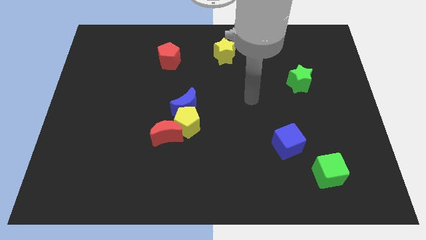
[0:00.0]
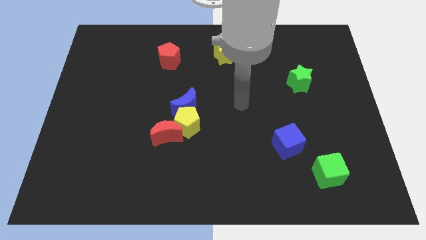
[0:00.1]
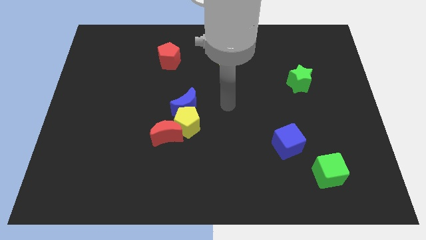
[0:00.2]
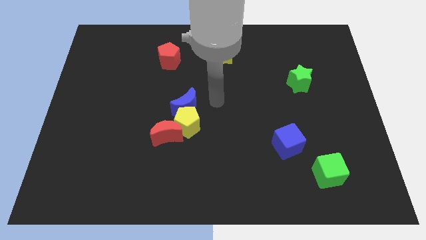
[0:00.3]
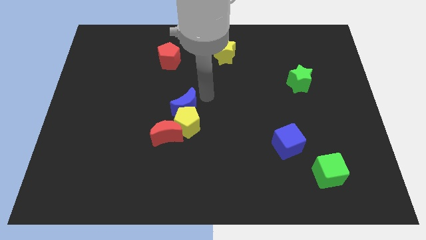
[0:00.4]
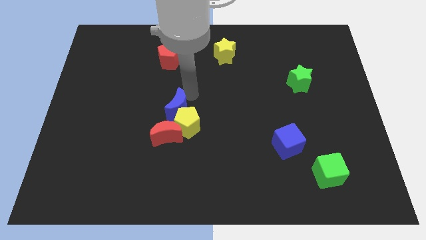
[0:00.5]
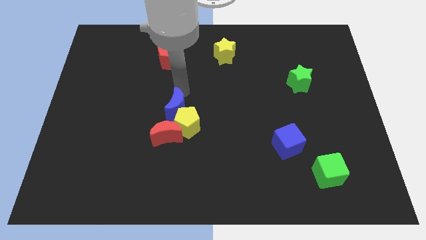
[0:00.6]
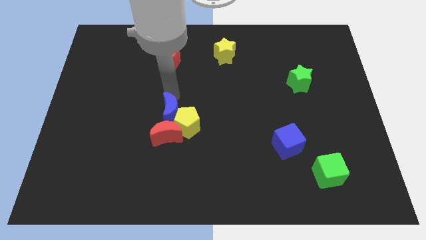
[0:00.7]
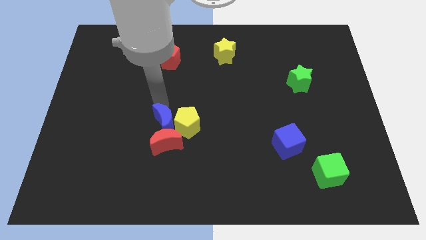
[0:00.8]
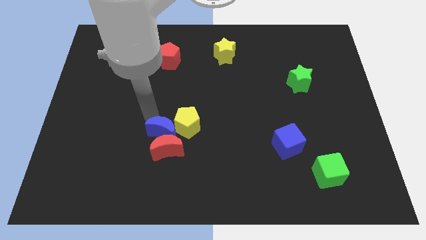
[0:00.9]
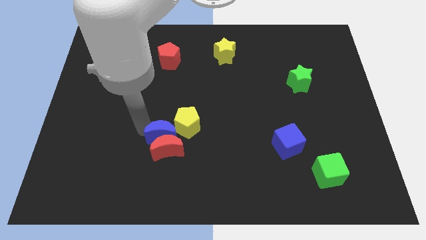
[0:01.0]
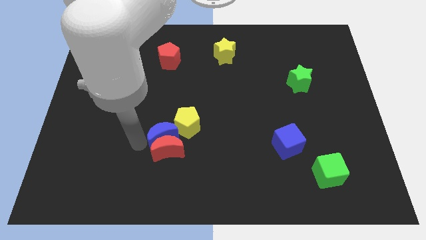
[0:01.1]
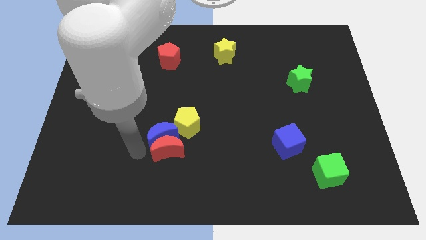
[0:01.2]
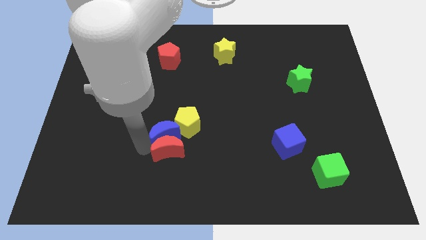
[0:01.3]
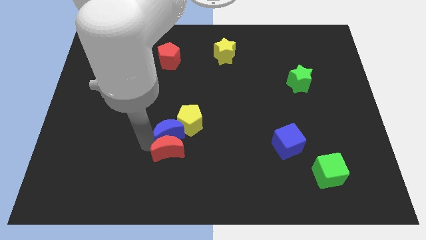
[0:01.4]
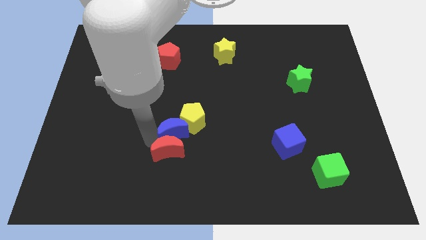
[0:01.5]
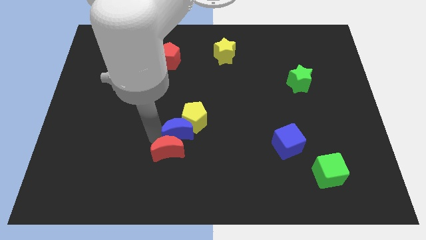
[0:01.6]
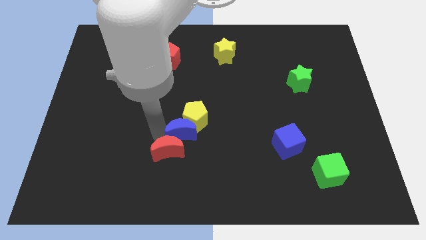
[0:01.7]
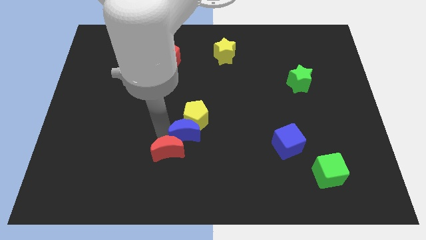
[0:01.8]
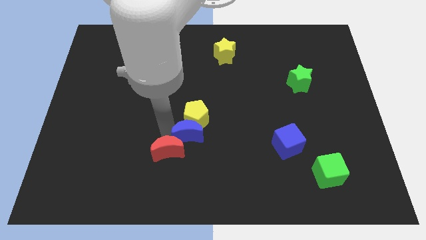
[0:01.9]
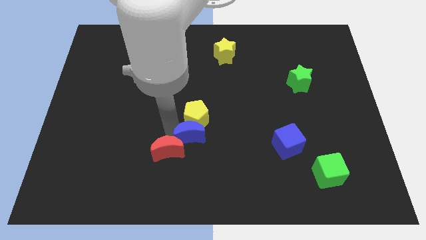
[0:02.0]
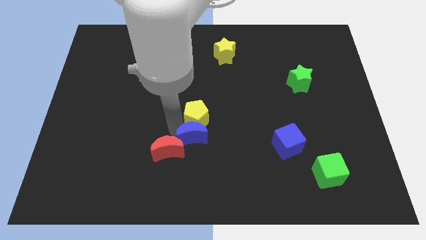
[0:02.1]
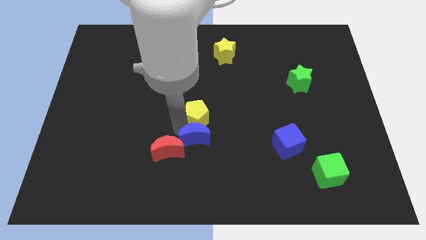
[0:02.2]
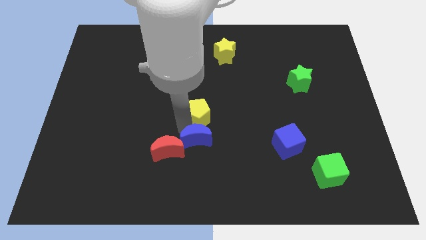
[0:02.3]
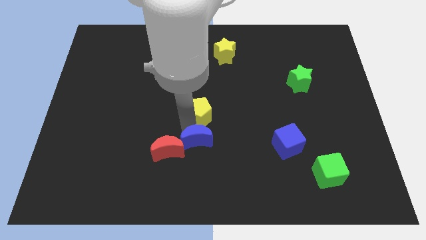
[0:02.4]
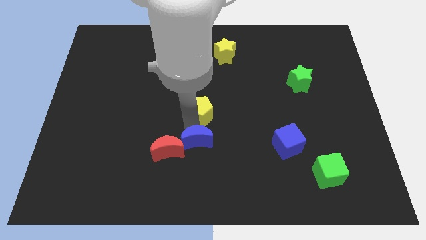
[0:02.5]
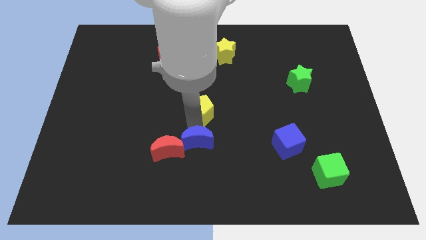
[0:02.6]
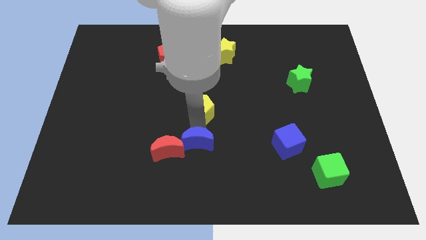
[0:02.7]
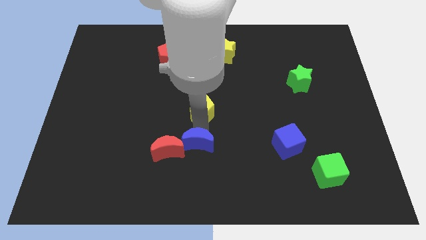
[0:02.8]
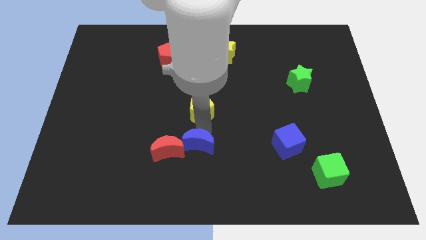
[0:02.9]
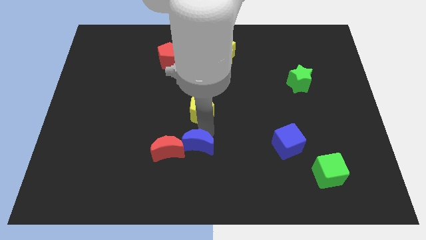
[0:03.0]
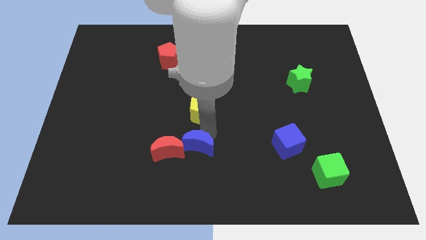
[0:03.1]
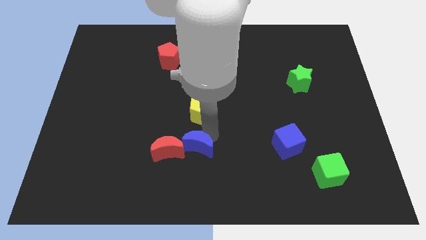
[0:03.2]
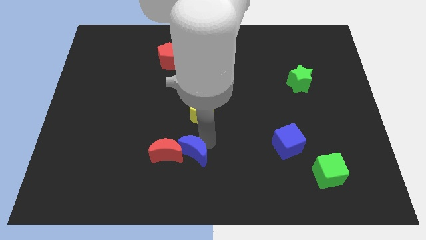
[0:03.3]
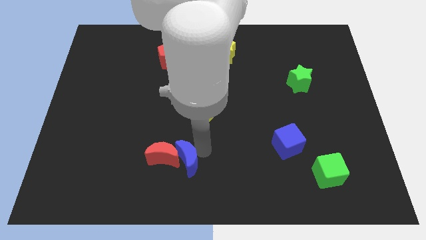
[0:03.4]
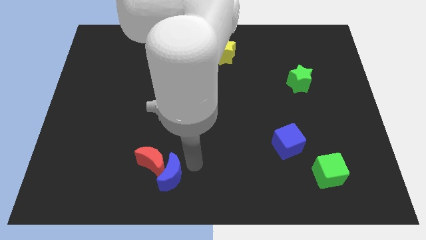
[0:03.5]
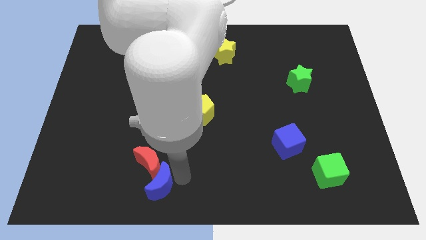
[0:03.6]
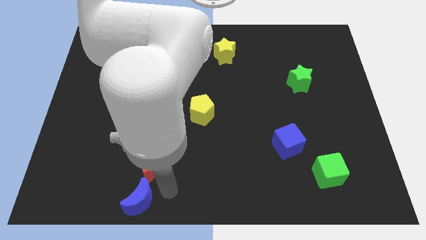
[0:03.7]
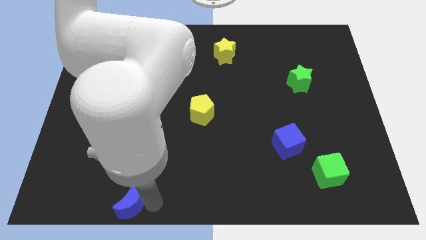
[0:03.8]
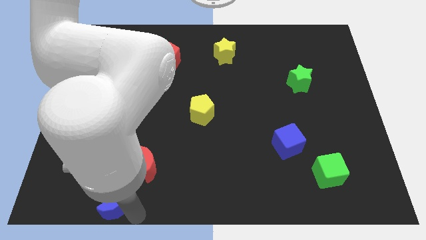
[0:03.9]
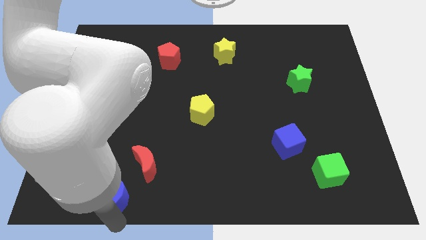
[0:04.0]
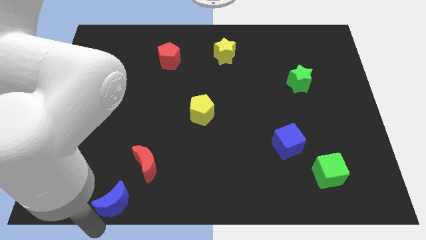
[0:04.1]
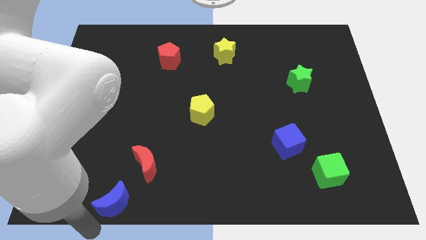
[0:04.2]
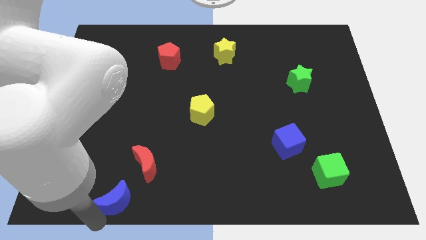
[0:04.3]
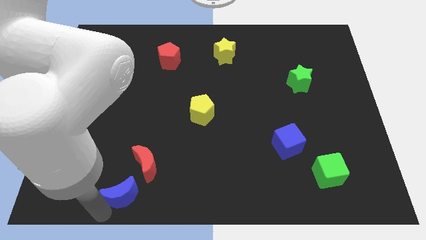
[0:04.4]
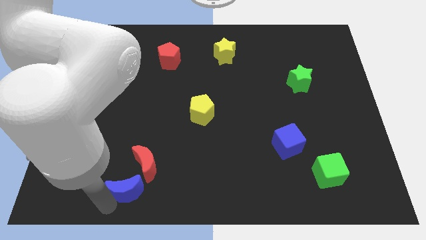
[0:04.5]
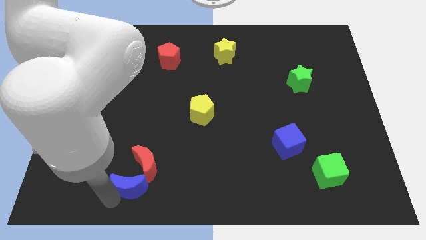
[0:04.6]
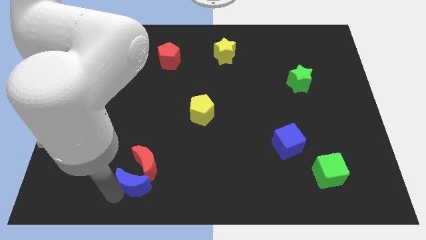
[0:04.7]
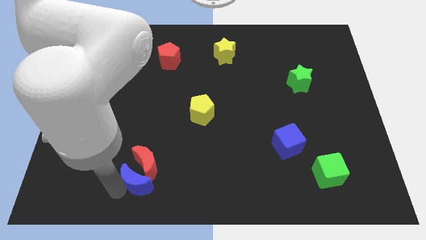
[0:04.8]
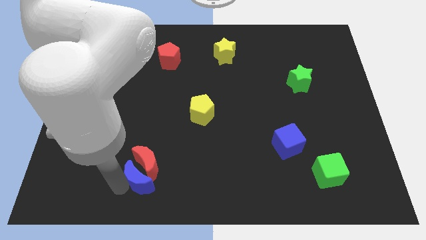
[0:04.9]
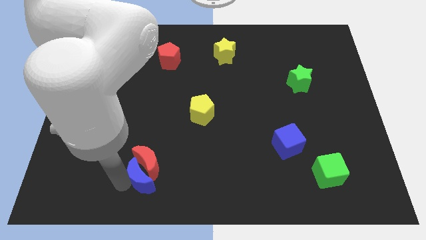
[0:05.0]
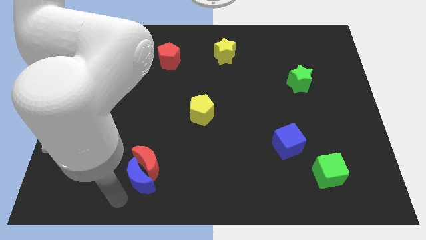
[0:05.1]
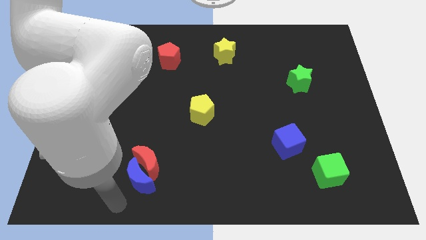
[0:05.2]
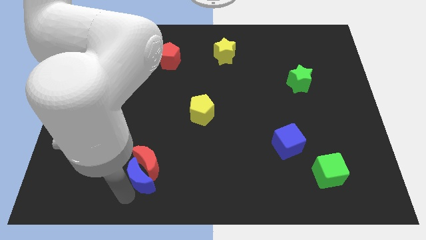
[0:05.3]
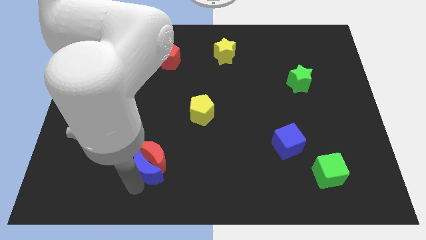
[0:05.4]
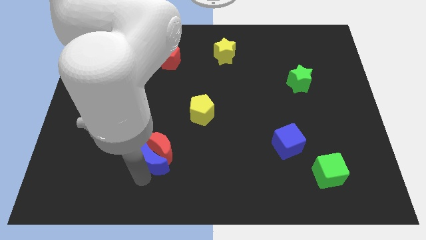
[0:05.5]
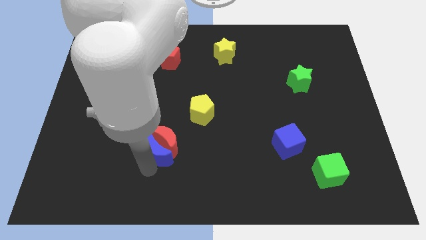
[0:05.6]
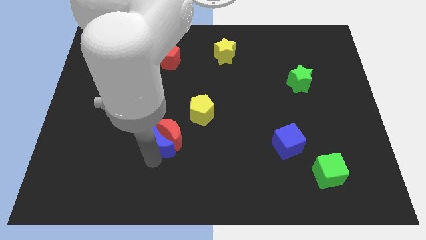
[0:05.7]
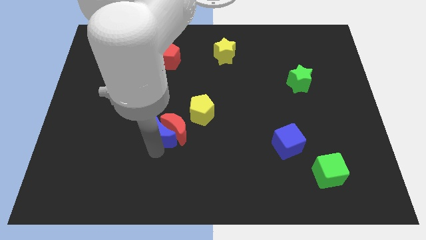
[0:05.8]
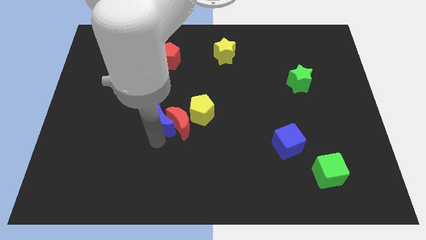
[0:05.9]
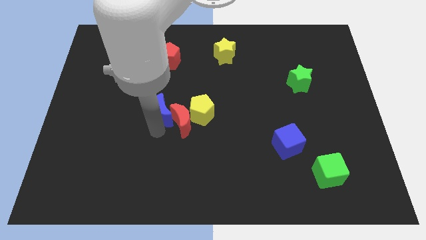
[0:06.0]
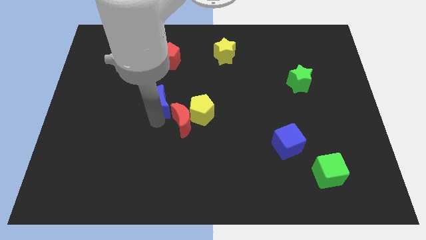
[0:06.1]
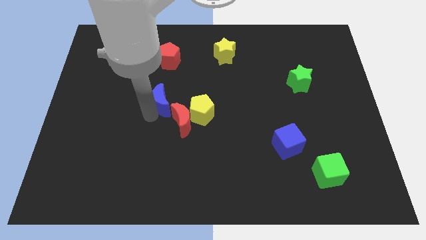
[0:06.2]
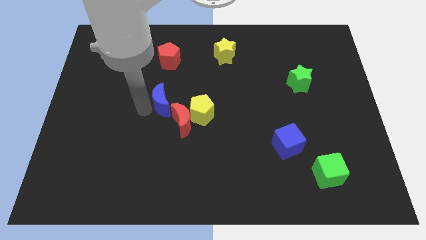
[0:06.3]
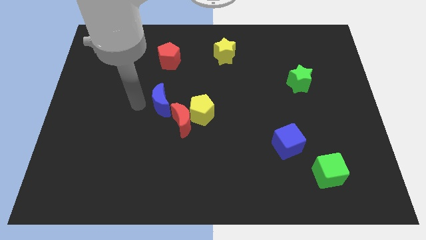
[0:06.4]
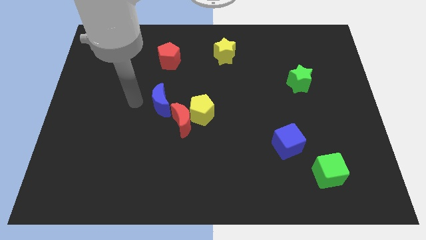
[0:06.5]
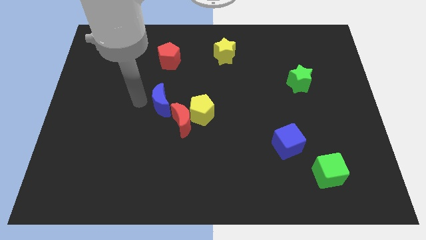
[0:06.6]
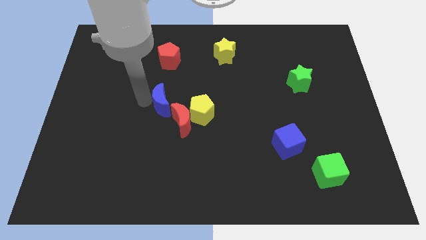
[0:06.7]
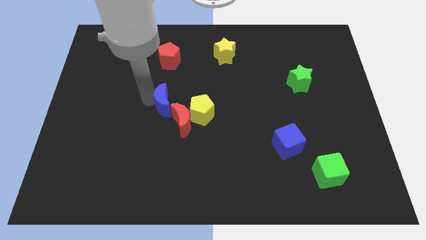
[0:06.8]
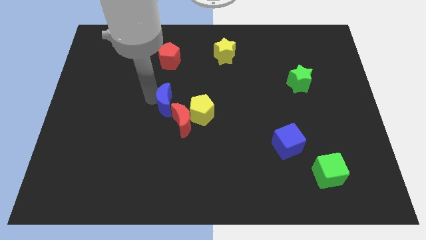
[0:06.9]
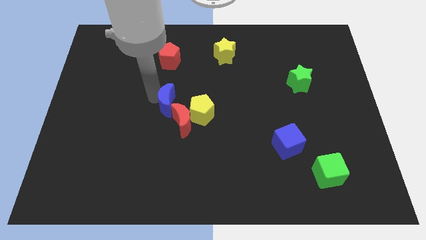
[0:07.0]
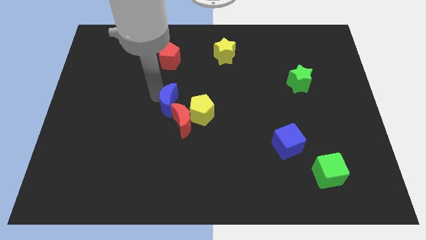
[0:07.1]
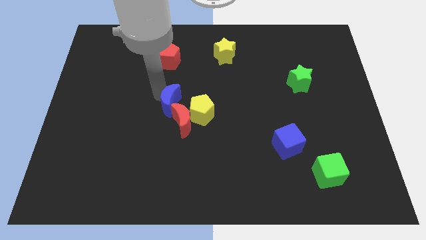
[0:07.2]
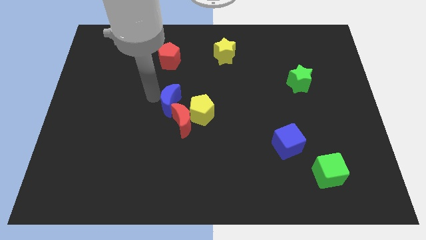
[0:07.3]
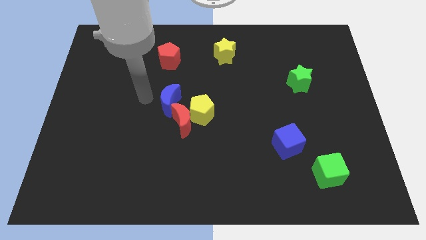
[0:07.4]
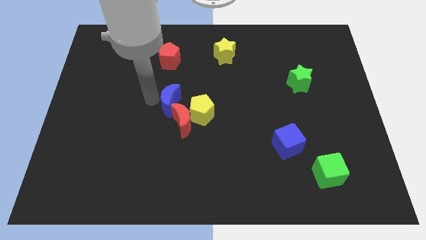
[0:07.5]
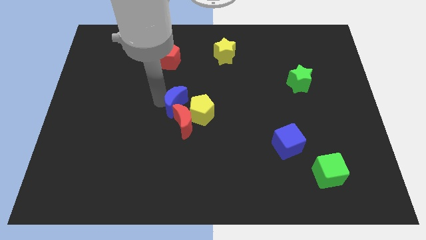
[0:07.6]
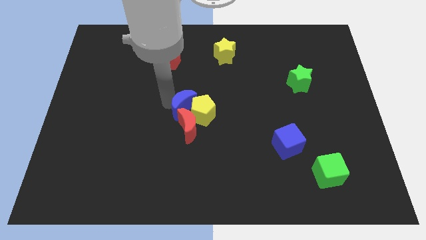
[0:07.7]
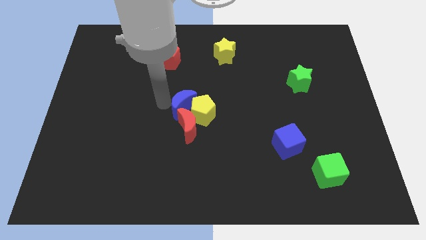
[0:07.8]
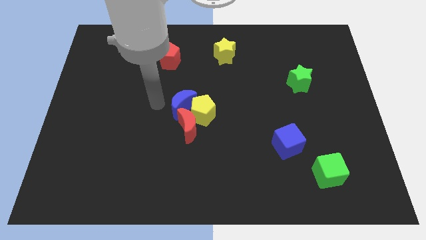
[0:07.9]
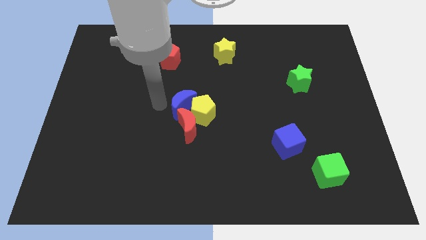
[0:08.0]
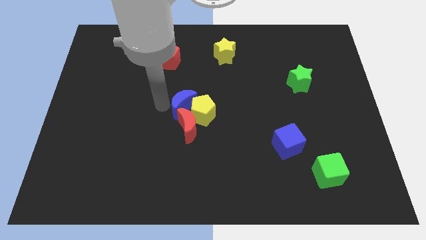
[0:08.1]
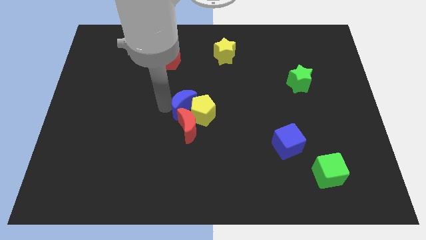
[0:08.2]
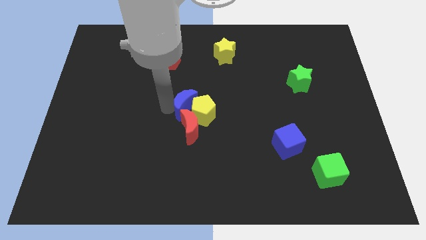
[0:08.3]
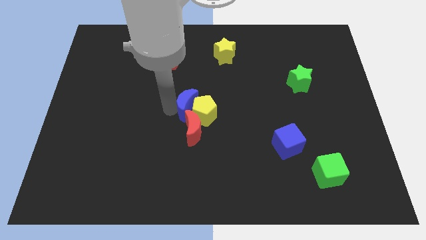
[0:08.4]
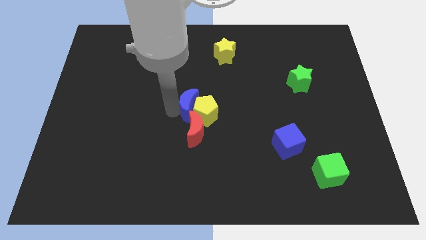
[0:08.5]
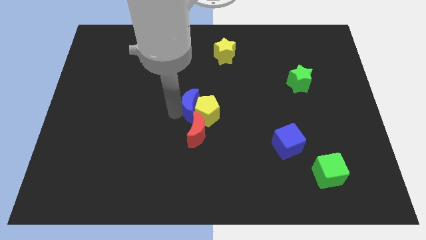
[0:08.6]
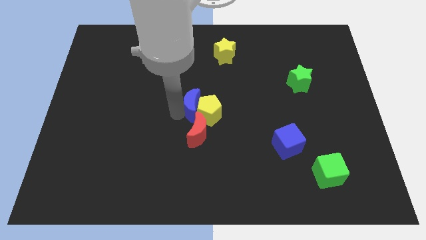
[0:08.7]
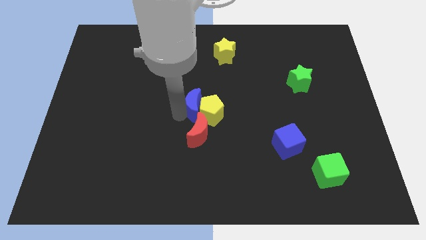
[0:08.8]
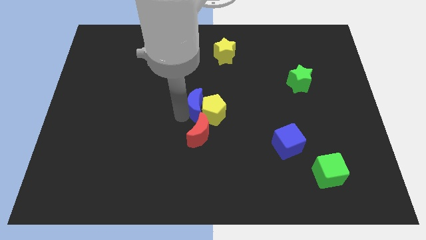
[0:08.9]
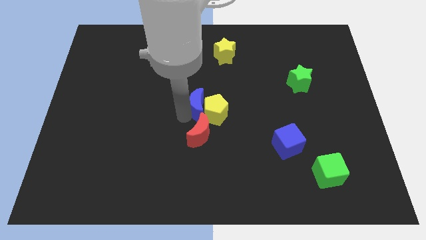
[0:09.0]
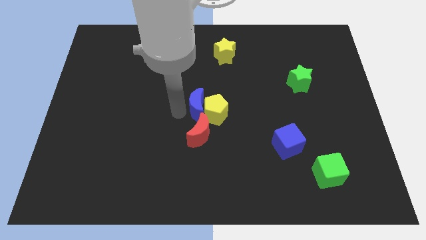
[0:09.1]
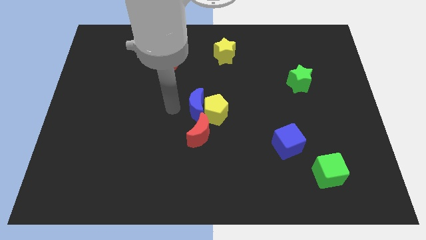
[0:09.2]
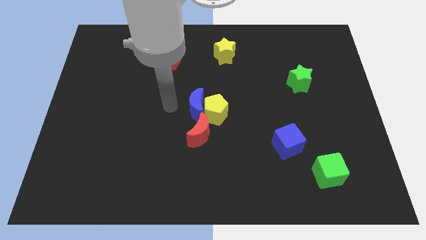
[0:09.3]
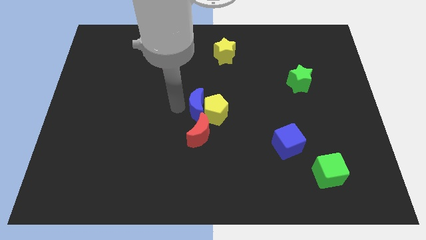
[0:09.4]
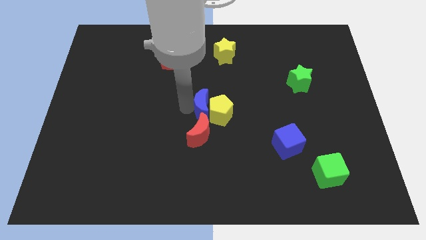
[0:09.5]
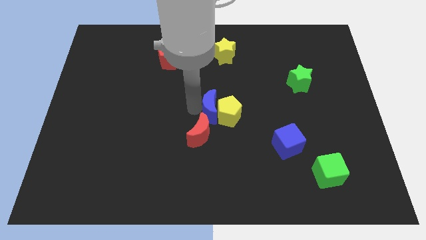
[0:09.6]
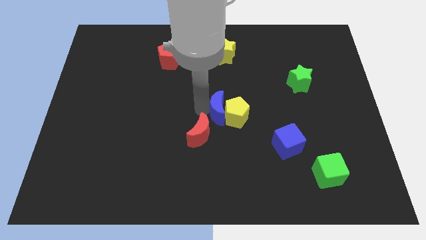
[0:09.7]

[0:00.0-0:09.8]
slide the blue moon right a little bit
